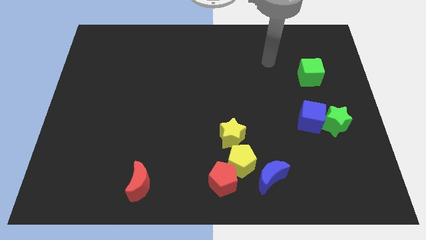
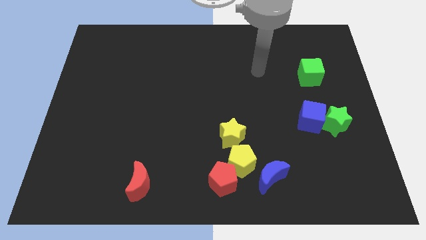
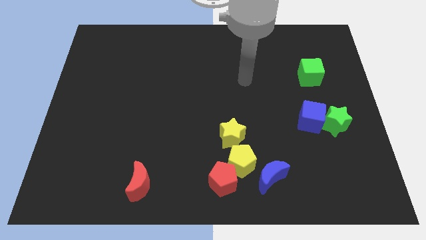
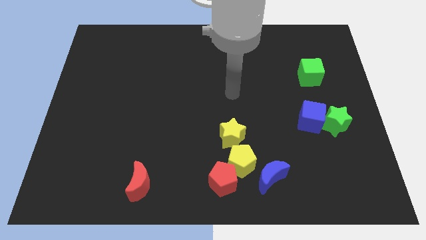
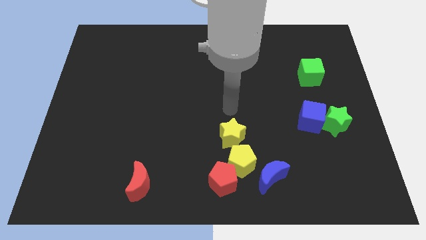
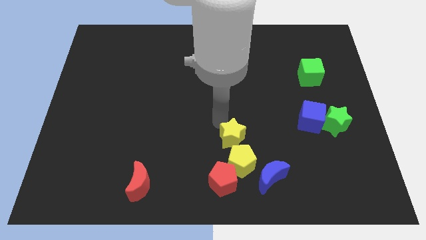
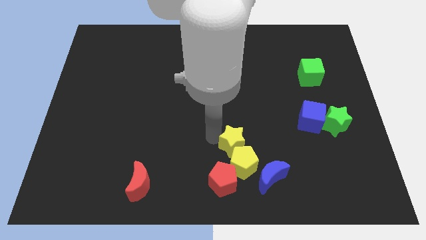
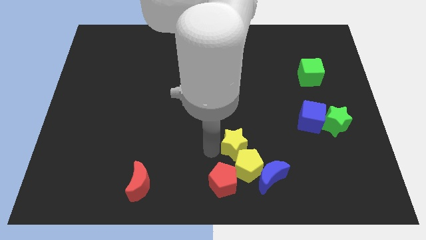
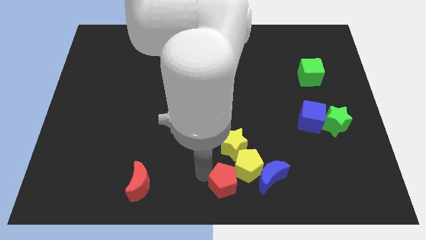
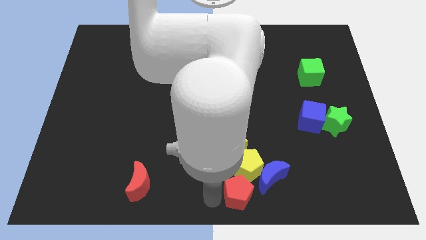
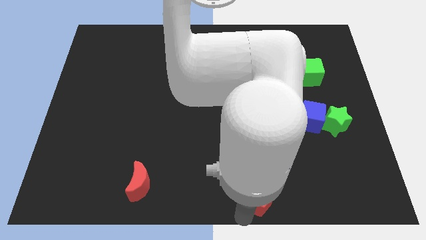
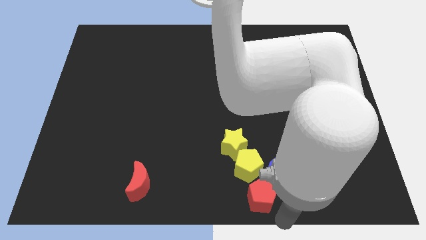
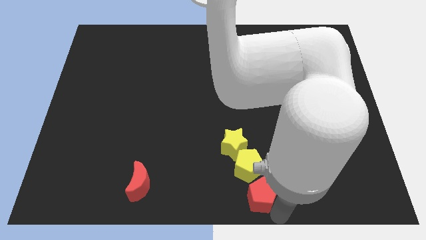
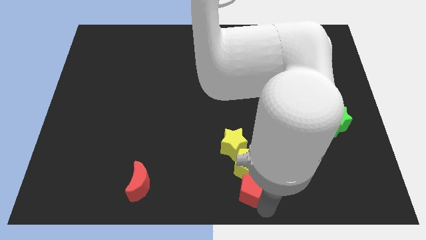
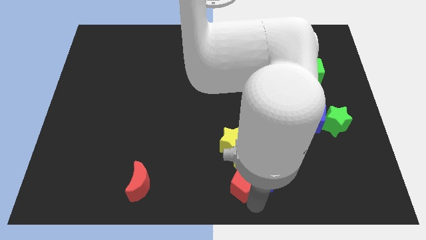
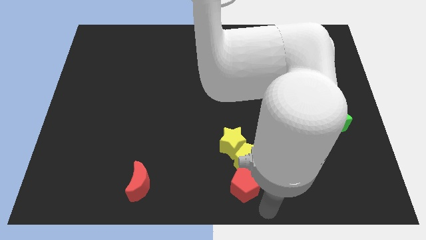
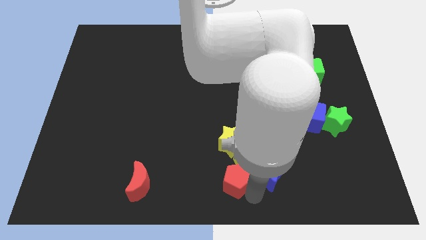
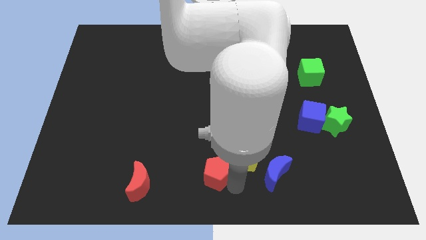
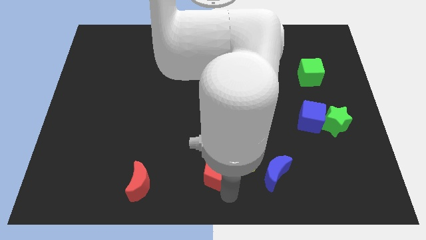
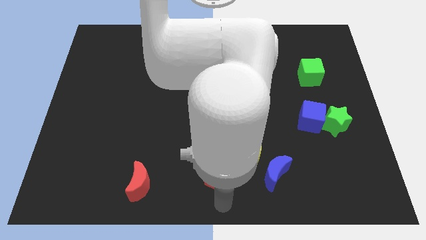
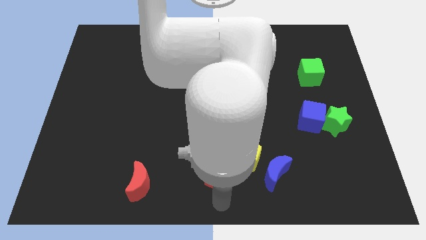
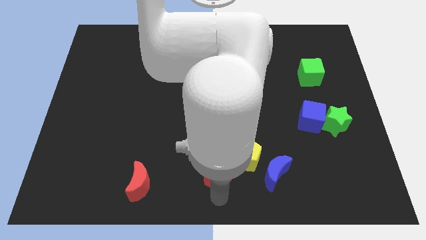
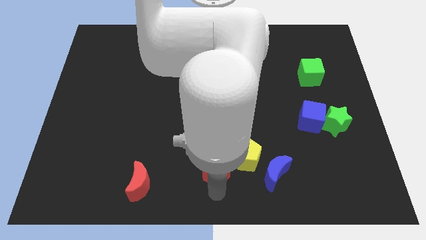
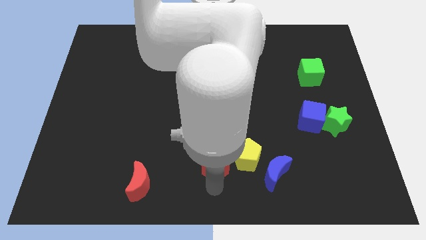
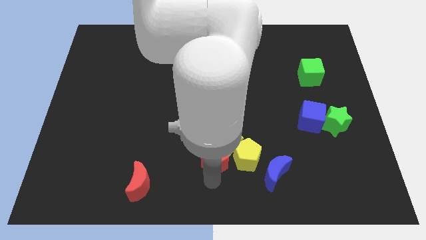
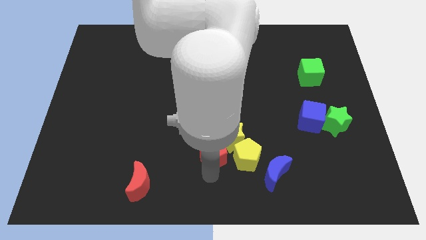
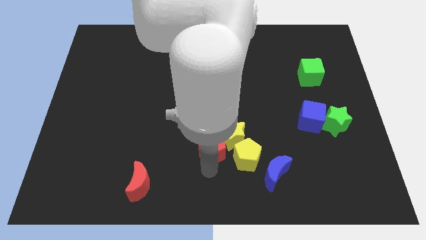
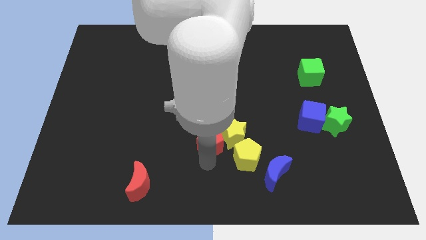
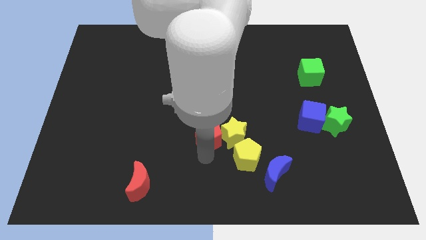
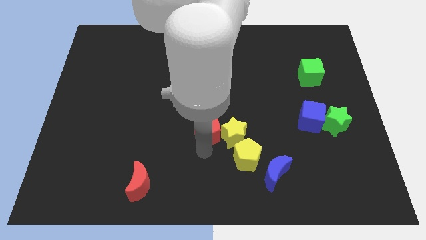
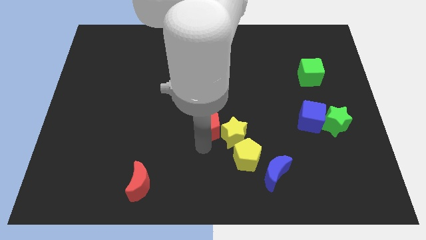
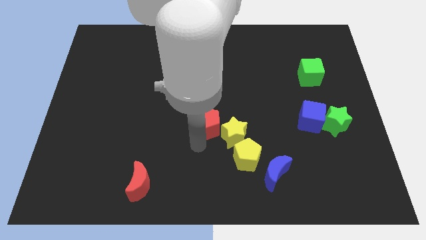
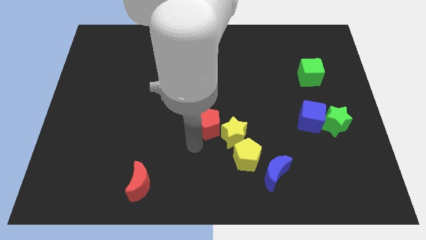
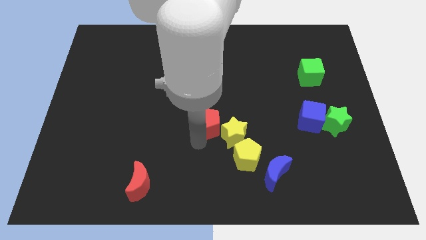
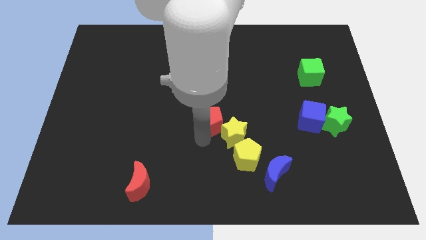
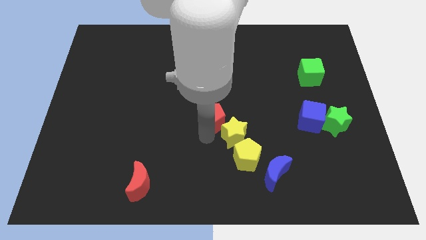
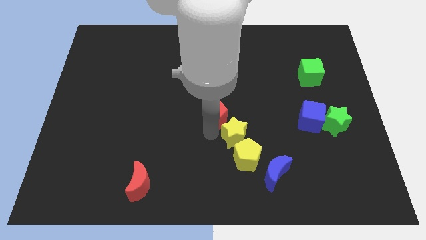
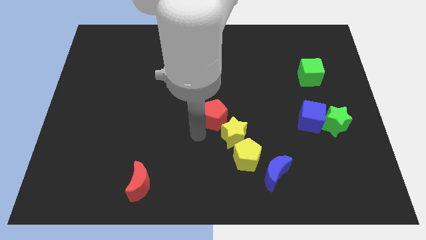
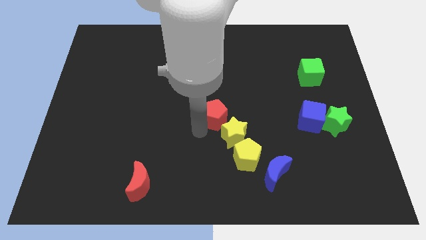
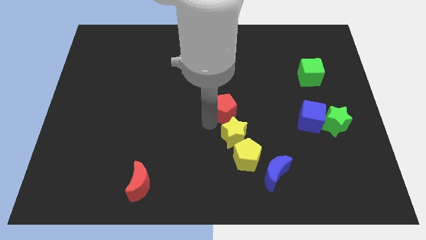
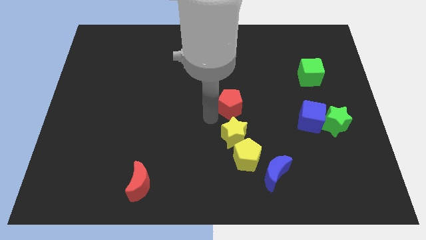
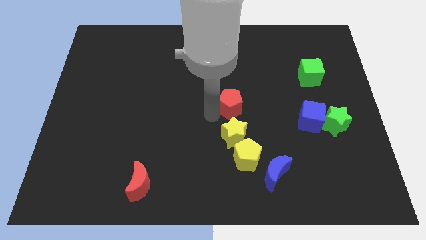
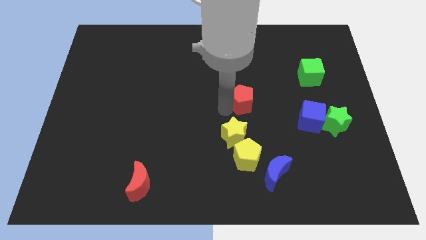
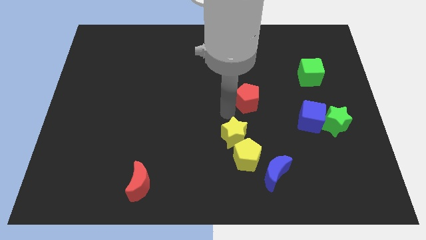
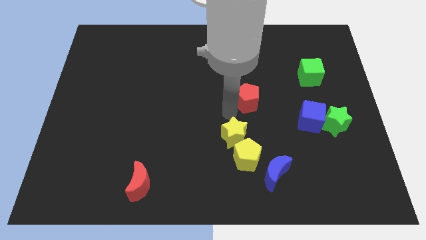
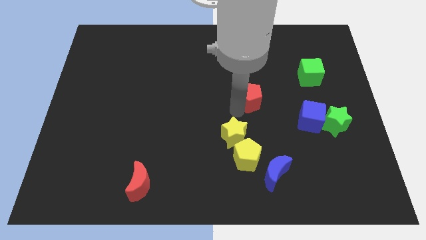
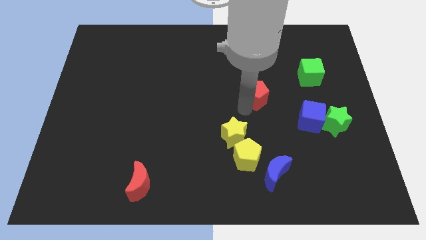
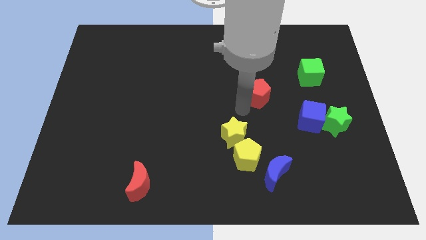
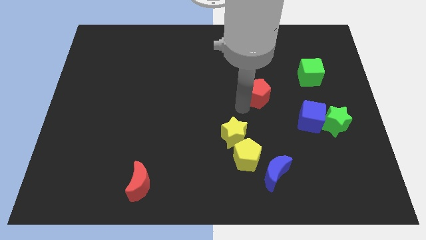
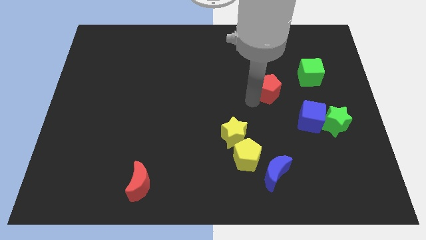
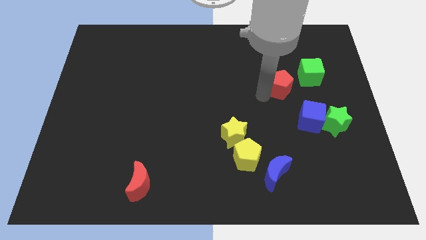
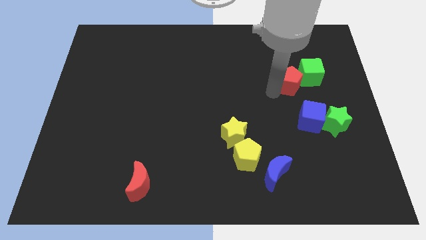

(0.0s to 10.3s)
put the red pentagon towards the green cube

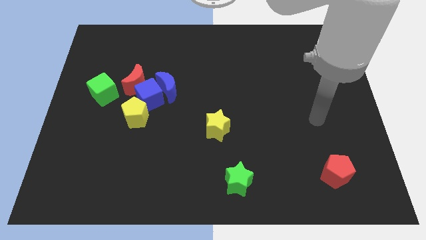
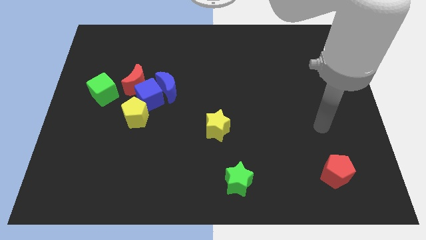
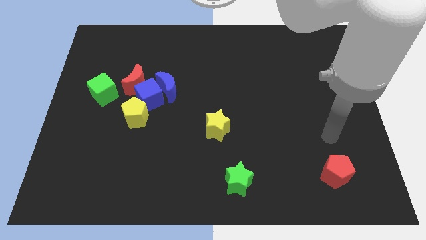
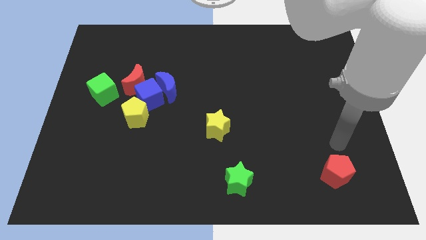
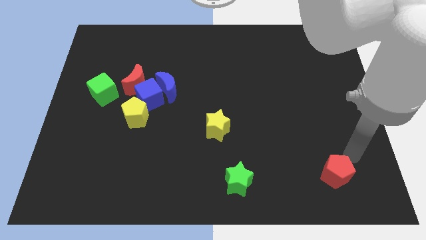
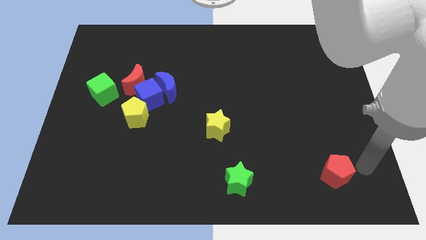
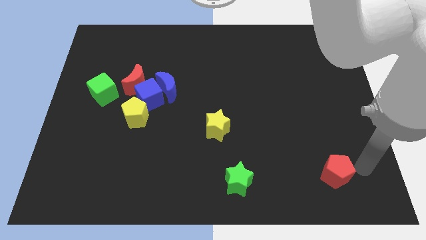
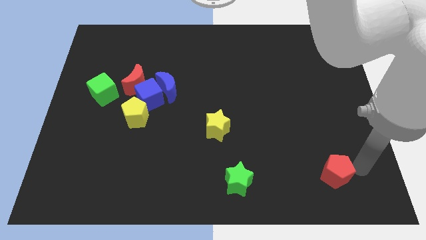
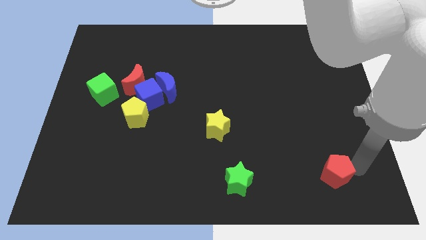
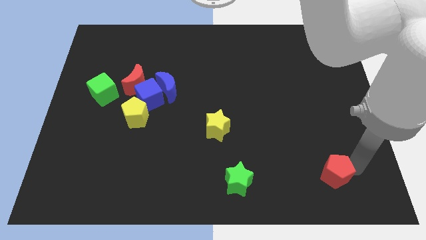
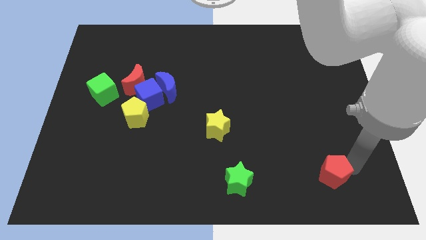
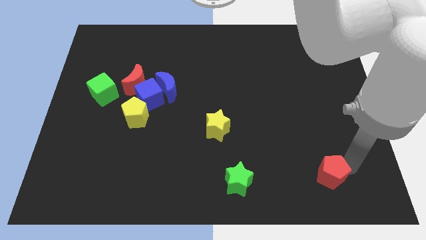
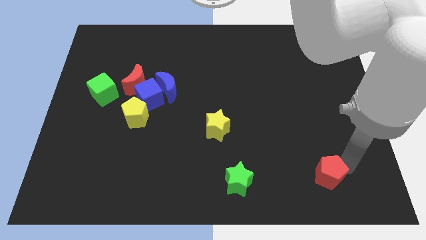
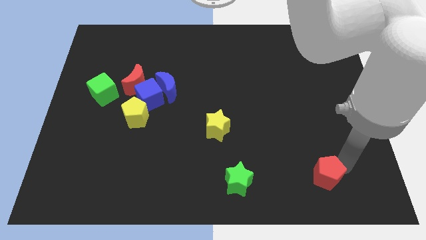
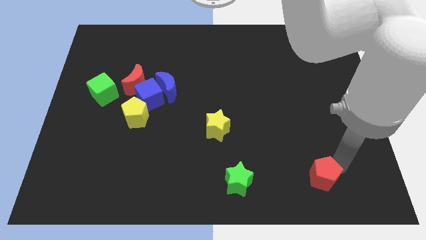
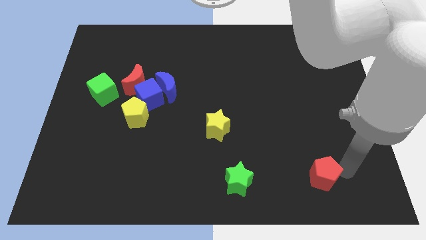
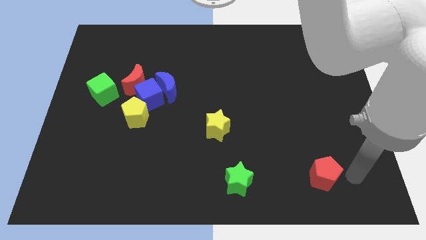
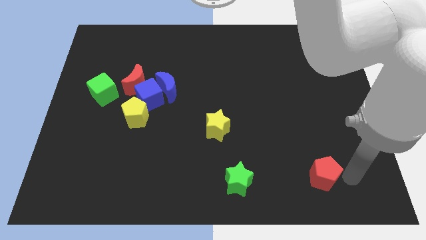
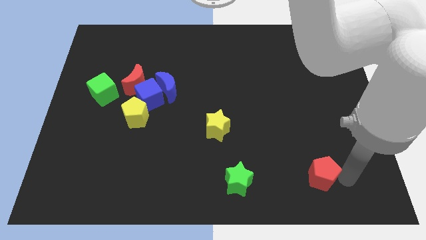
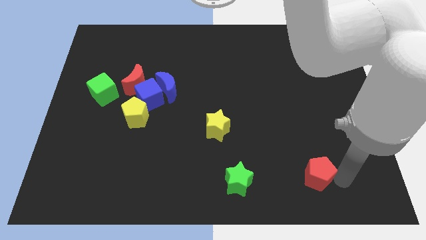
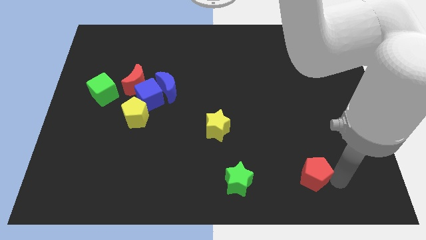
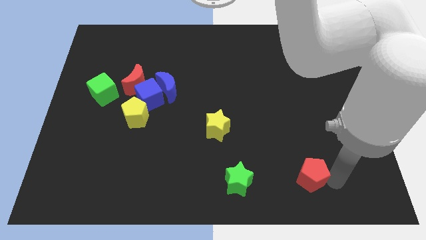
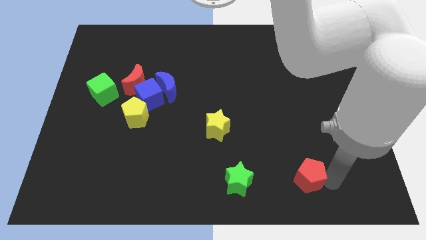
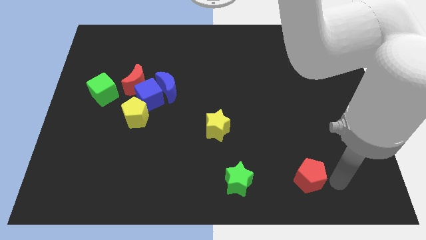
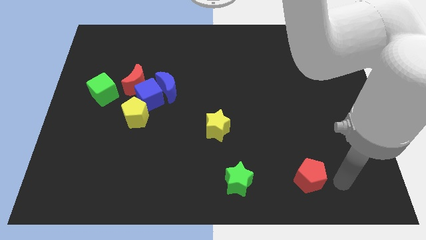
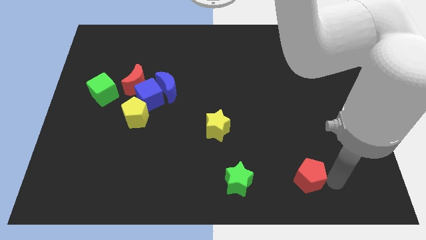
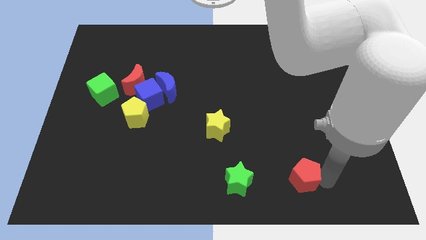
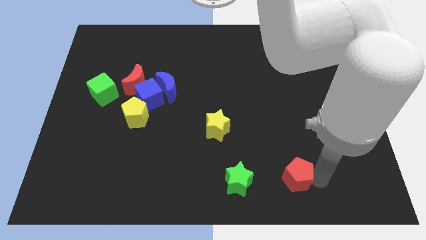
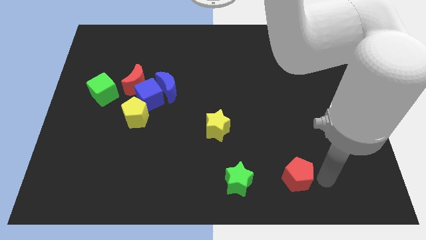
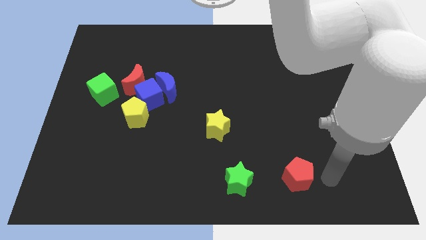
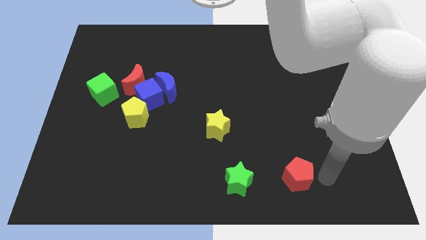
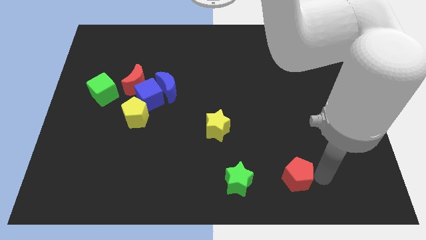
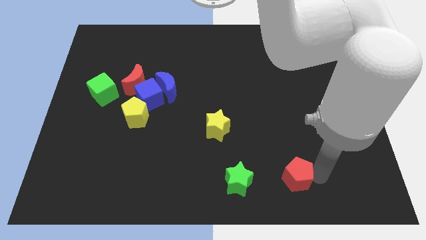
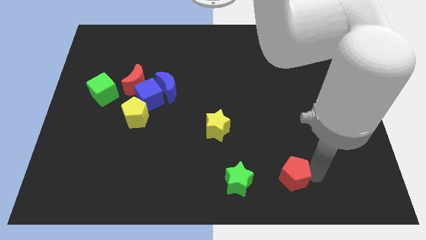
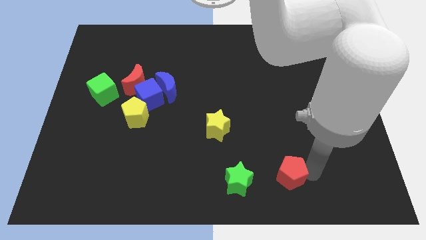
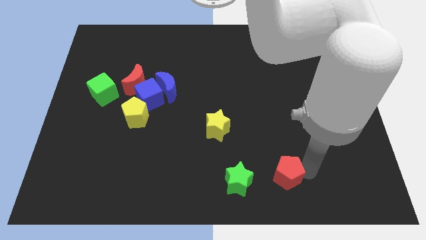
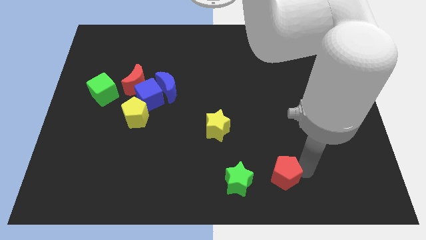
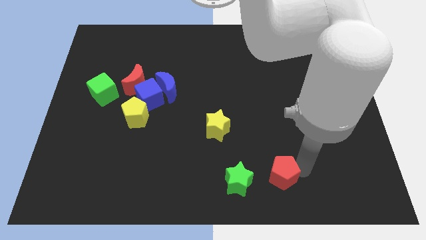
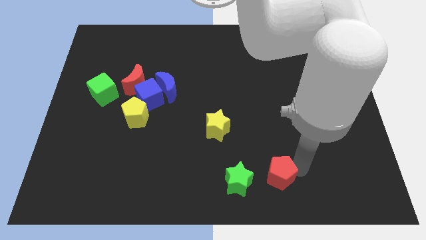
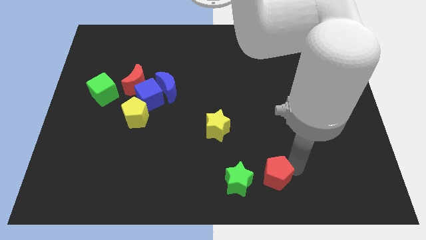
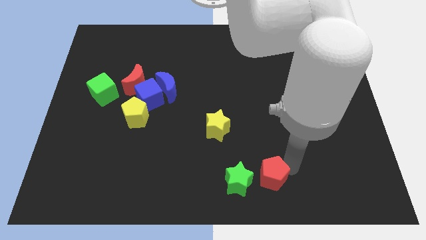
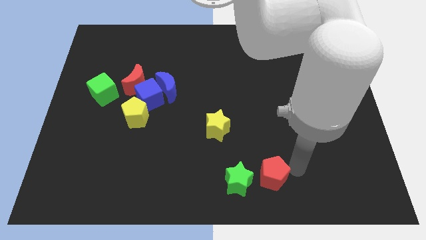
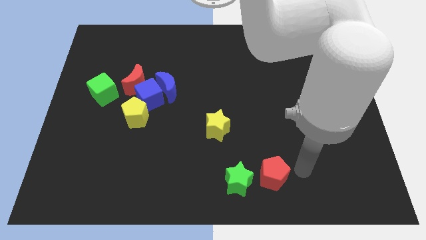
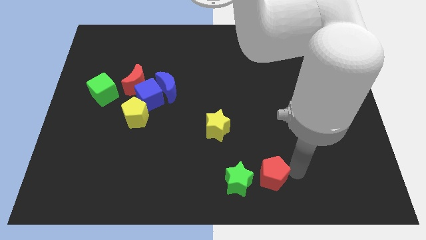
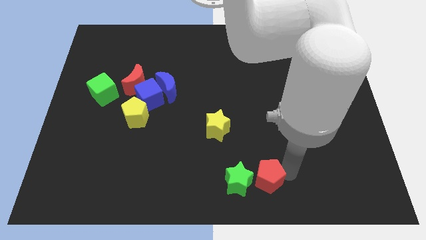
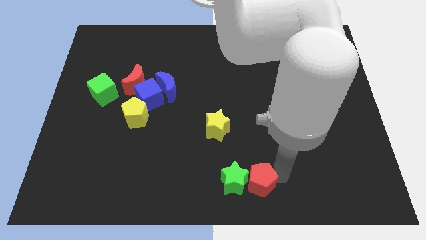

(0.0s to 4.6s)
move the red pentagon close to the green star
